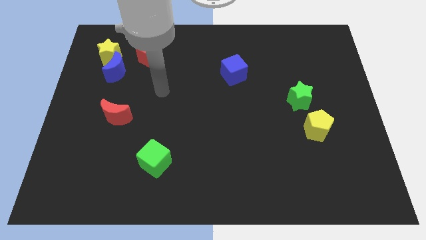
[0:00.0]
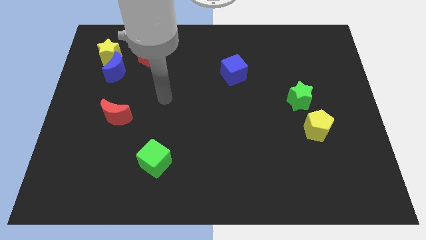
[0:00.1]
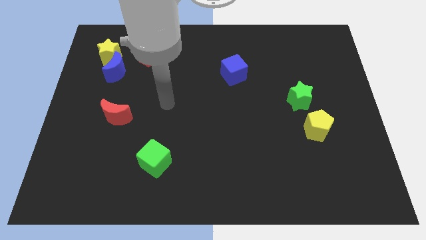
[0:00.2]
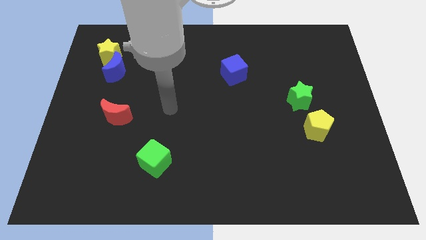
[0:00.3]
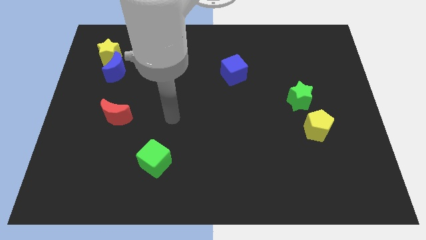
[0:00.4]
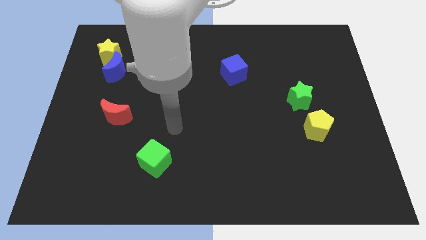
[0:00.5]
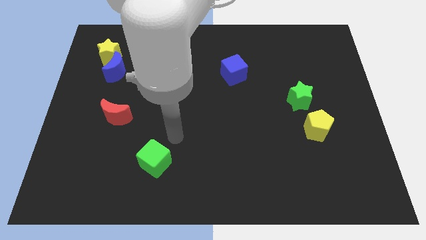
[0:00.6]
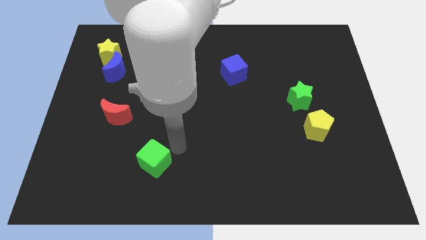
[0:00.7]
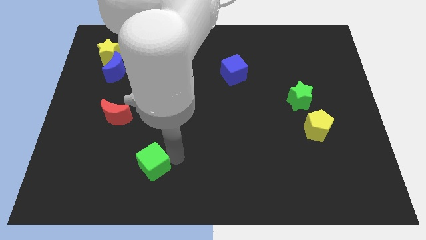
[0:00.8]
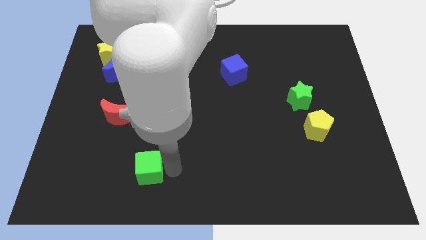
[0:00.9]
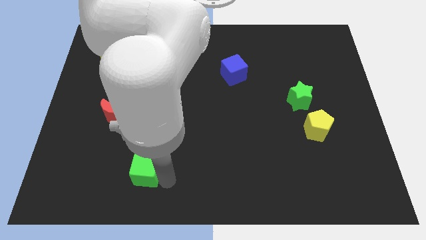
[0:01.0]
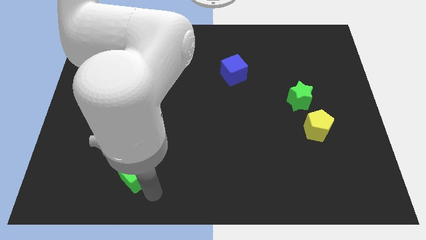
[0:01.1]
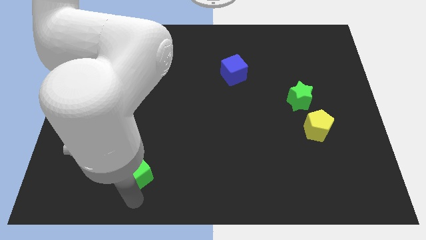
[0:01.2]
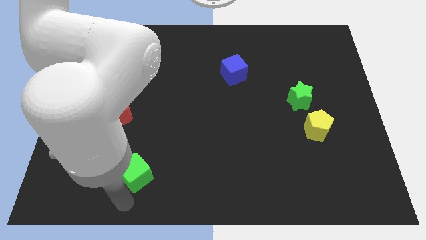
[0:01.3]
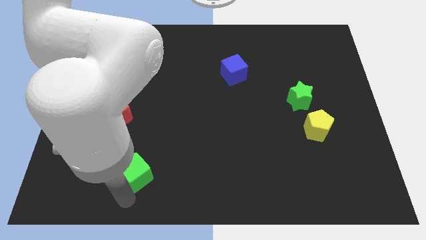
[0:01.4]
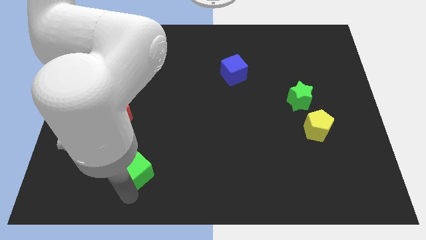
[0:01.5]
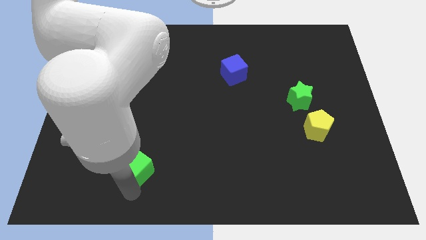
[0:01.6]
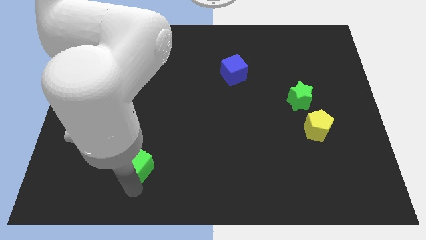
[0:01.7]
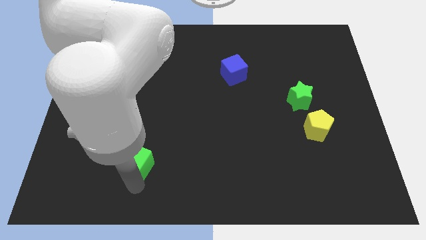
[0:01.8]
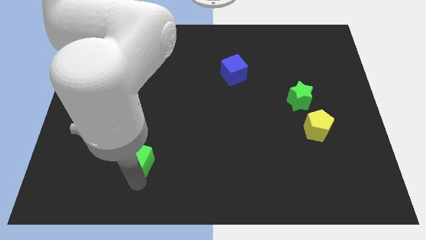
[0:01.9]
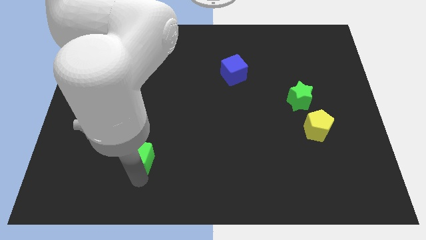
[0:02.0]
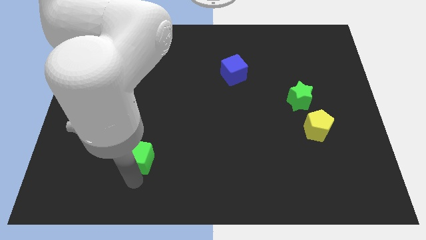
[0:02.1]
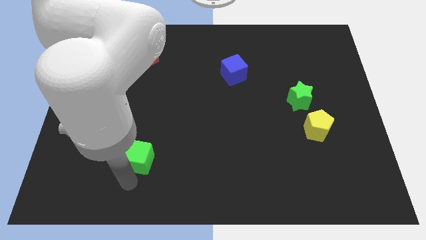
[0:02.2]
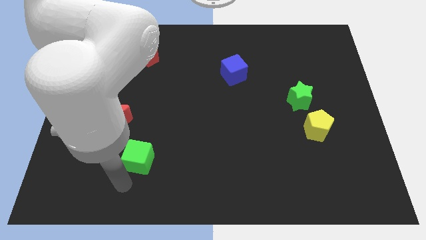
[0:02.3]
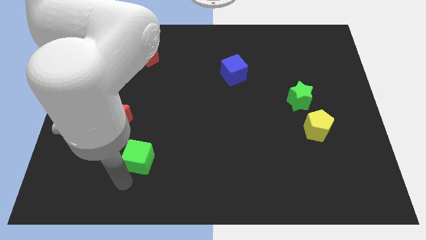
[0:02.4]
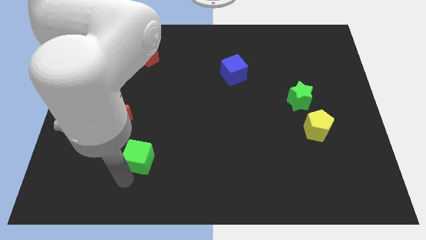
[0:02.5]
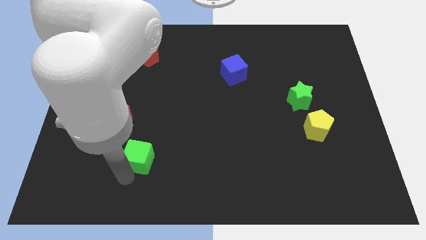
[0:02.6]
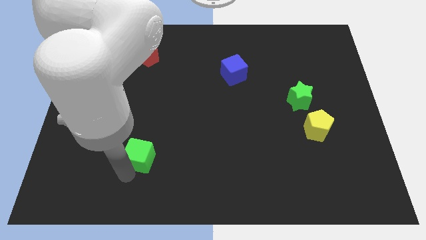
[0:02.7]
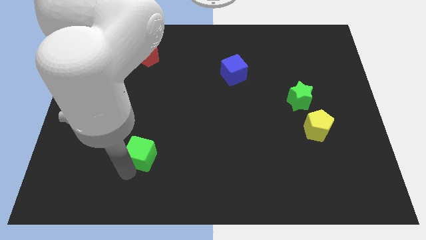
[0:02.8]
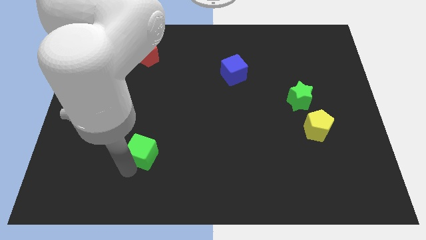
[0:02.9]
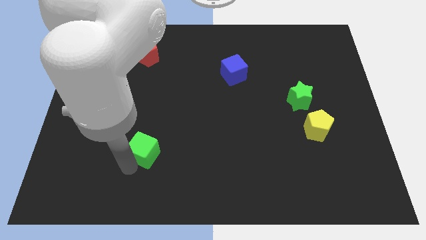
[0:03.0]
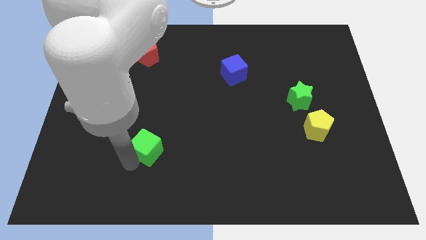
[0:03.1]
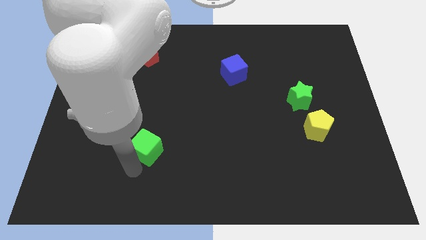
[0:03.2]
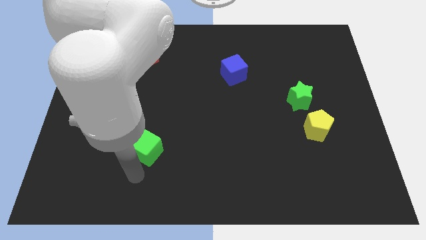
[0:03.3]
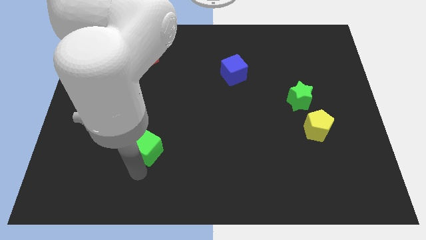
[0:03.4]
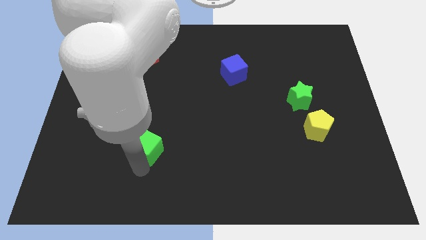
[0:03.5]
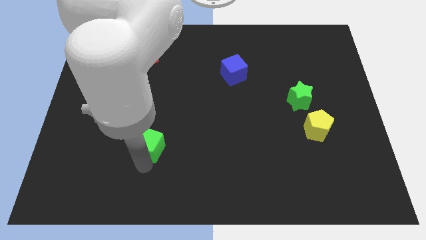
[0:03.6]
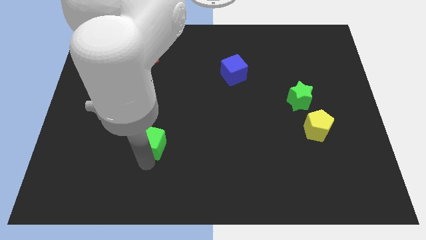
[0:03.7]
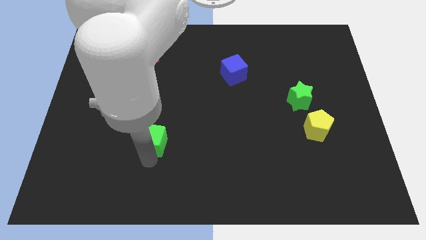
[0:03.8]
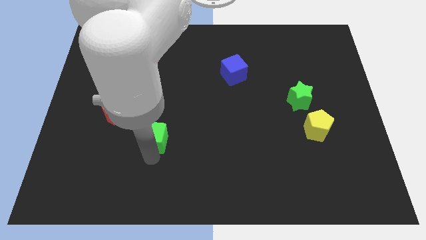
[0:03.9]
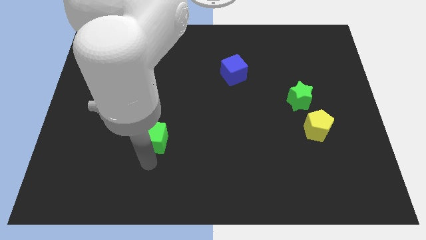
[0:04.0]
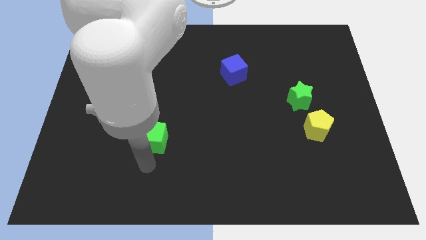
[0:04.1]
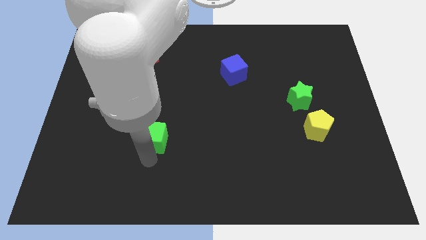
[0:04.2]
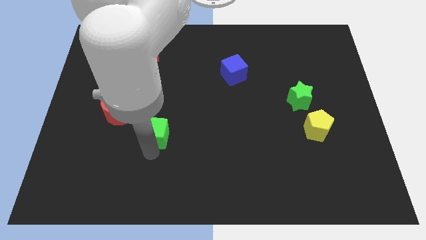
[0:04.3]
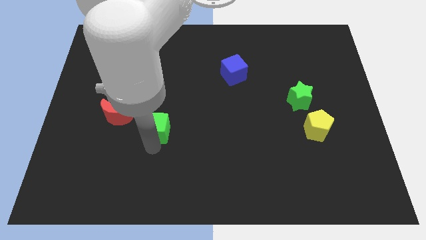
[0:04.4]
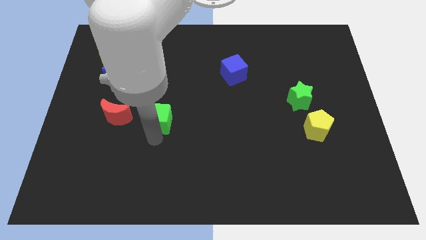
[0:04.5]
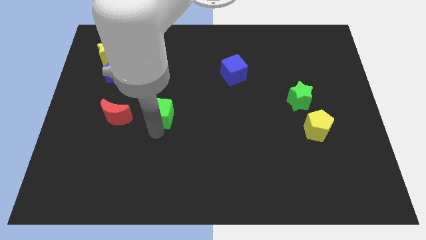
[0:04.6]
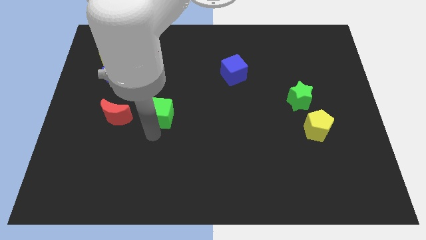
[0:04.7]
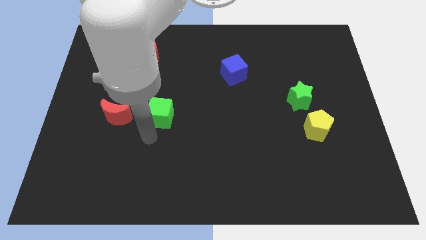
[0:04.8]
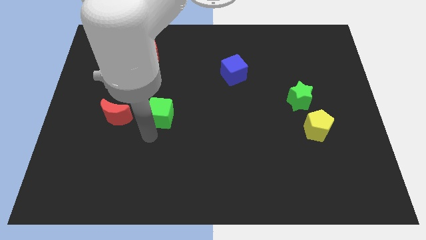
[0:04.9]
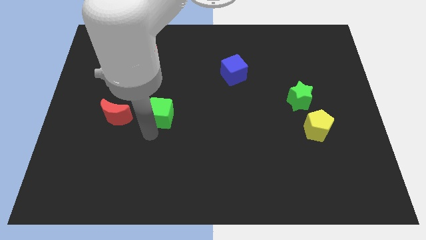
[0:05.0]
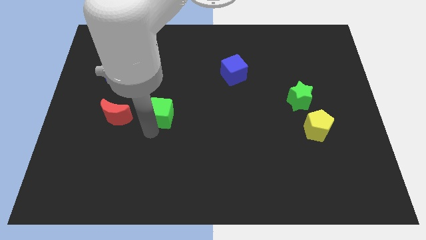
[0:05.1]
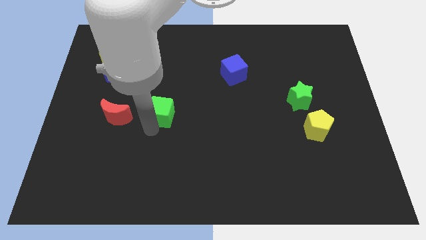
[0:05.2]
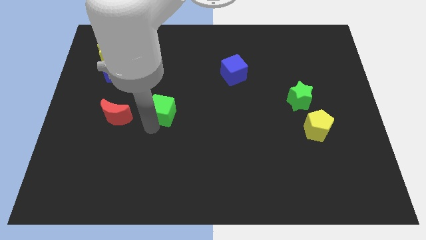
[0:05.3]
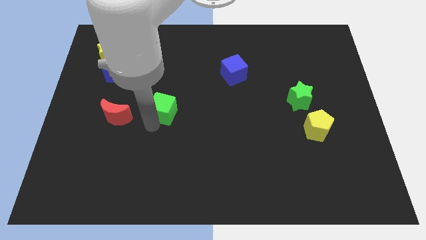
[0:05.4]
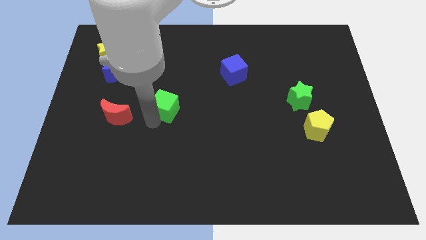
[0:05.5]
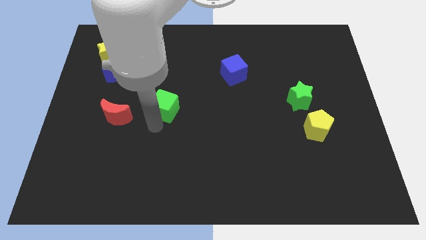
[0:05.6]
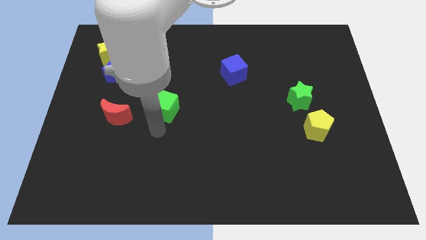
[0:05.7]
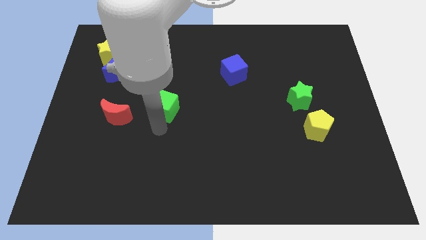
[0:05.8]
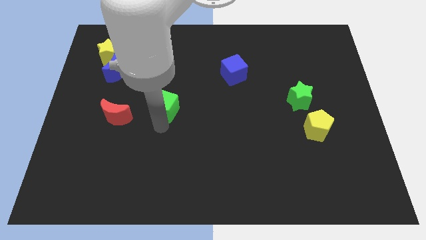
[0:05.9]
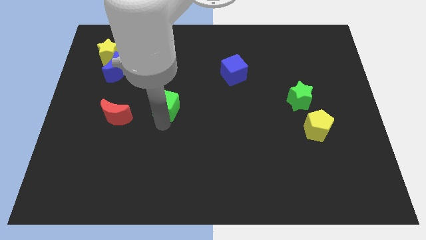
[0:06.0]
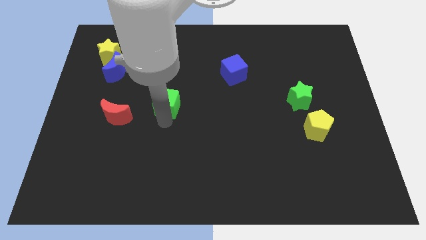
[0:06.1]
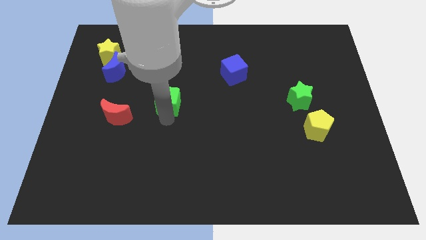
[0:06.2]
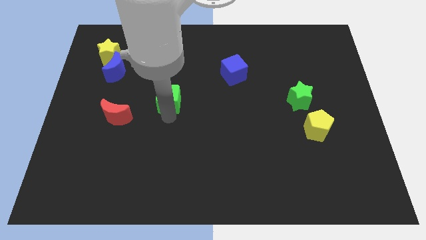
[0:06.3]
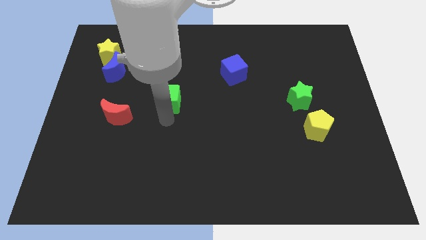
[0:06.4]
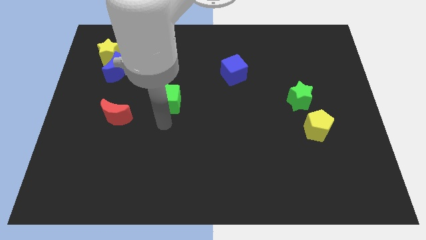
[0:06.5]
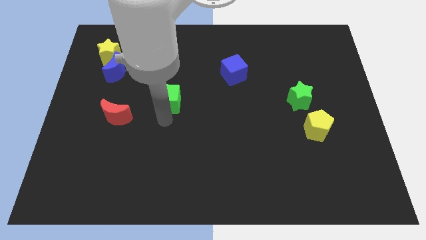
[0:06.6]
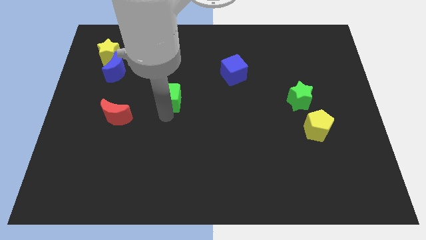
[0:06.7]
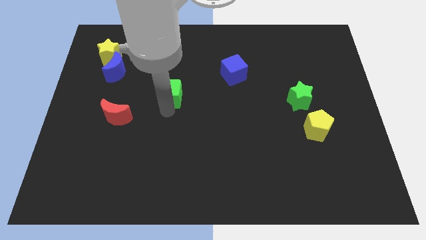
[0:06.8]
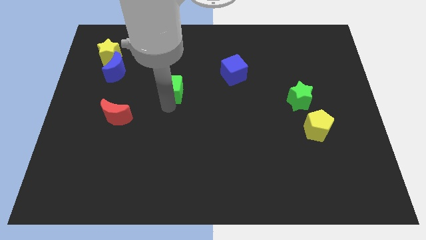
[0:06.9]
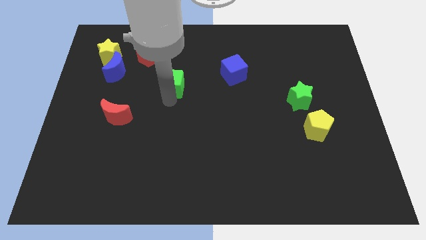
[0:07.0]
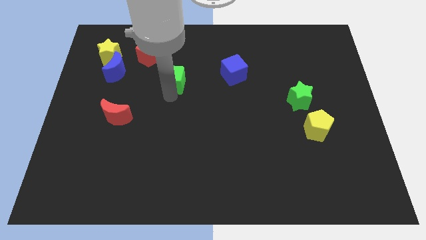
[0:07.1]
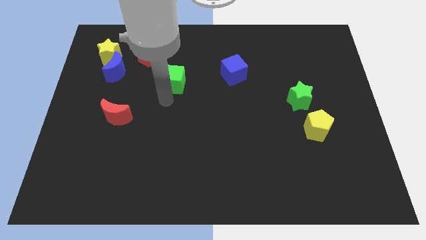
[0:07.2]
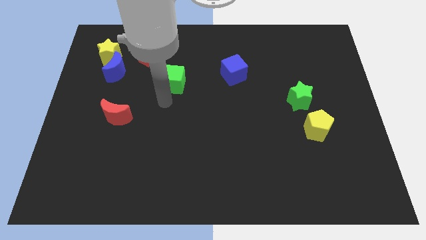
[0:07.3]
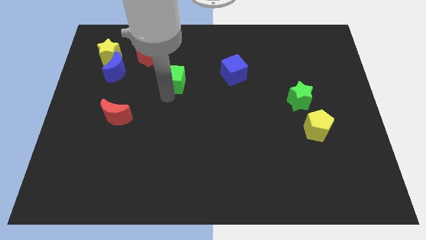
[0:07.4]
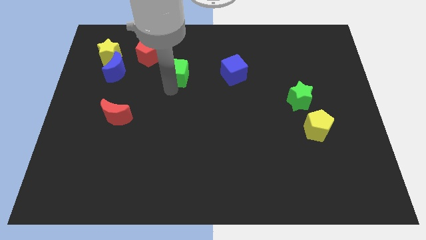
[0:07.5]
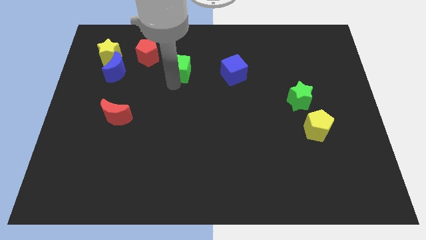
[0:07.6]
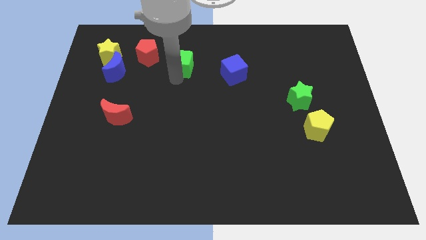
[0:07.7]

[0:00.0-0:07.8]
move the green cube to the right of the red pentagon
